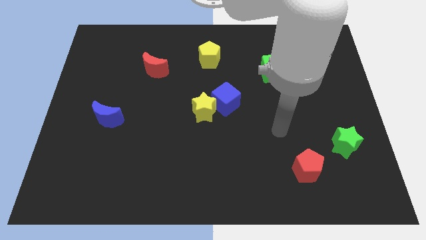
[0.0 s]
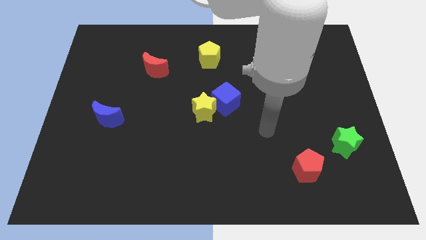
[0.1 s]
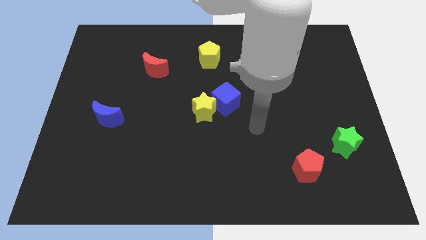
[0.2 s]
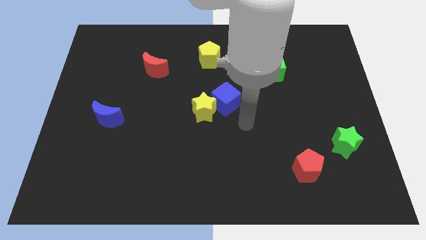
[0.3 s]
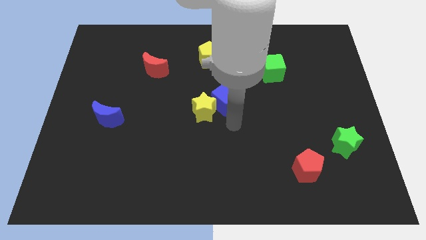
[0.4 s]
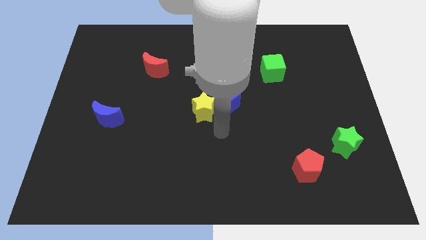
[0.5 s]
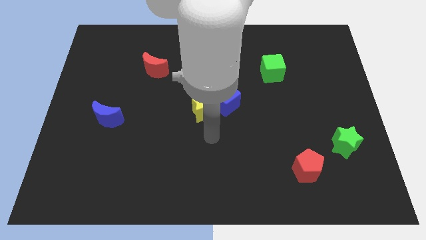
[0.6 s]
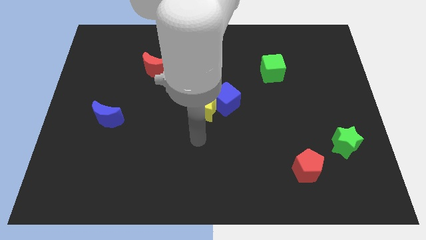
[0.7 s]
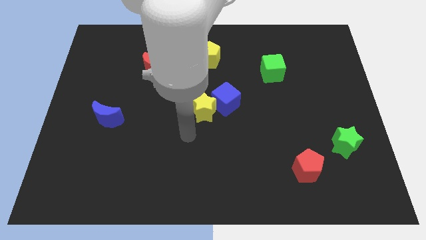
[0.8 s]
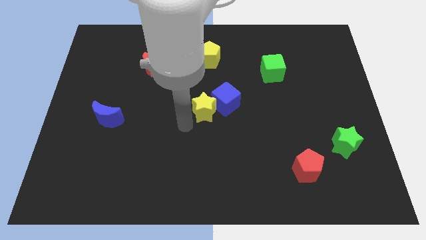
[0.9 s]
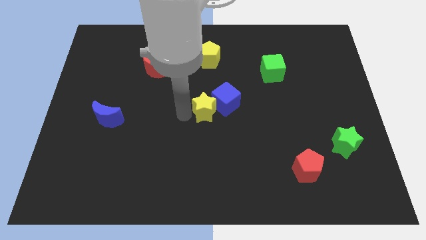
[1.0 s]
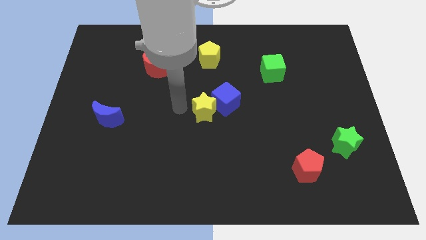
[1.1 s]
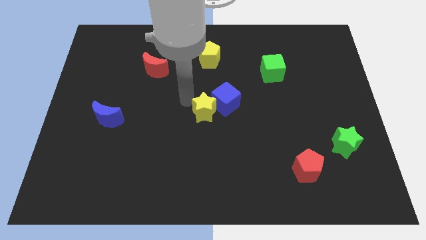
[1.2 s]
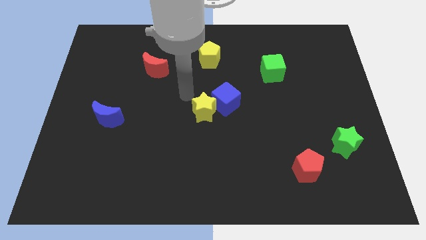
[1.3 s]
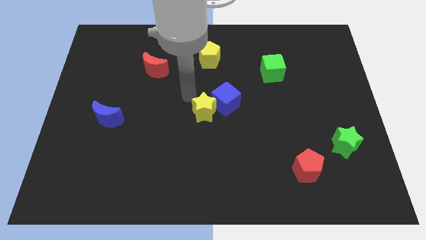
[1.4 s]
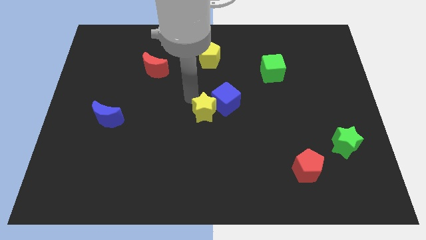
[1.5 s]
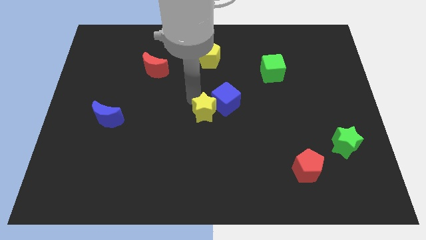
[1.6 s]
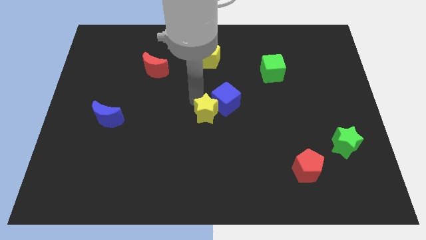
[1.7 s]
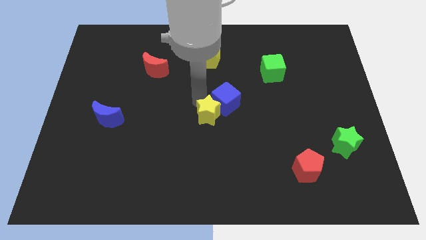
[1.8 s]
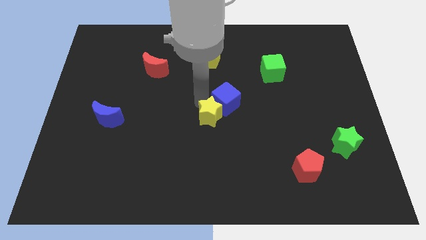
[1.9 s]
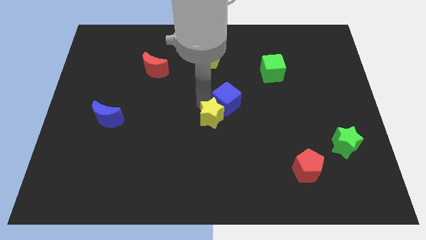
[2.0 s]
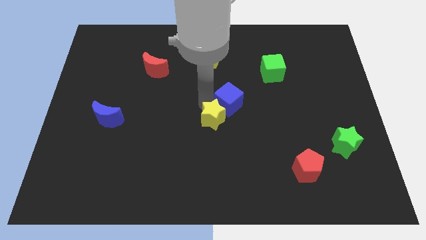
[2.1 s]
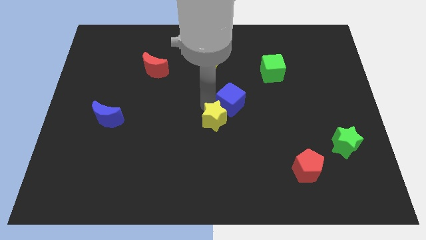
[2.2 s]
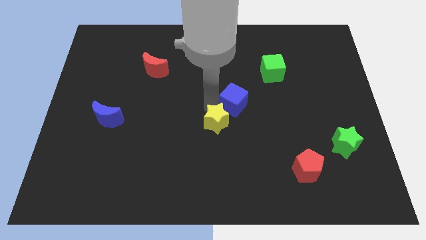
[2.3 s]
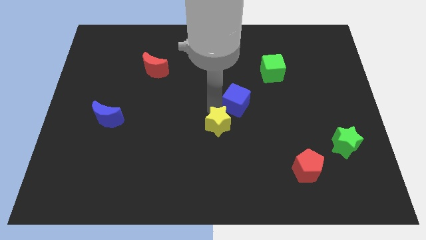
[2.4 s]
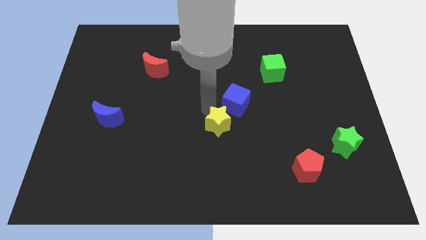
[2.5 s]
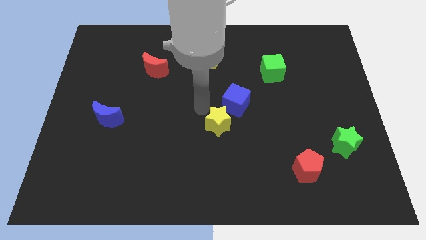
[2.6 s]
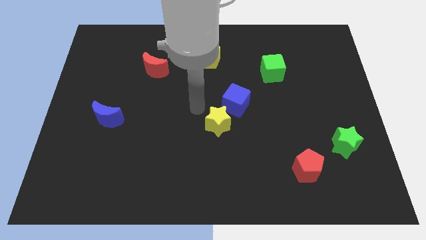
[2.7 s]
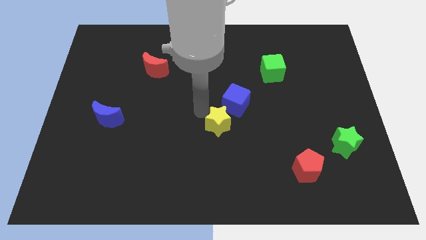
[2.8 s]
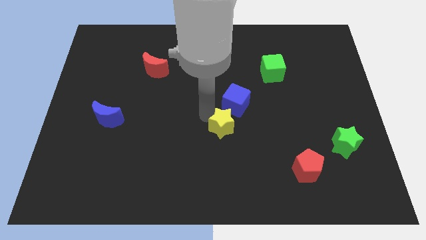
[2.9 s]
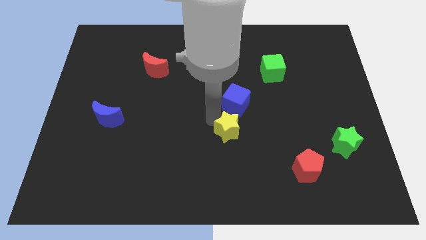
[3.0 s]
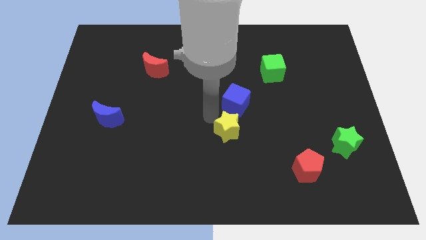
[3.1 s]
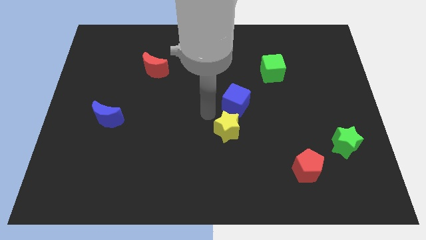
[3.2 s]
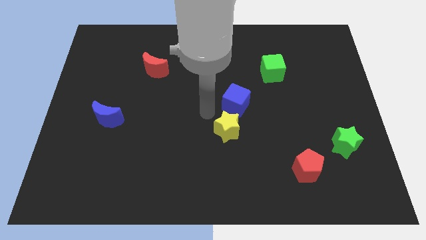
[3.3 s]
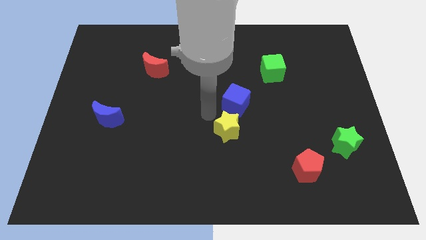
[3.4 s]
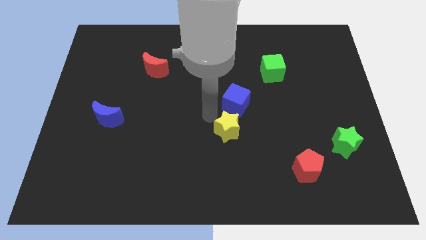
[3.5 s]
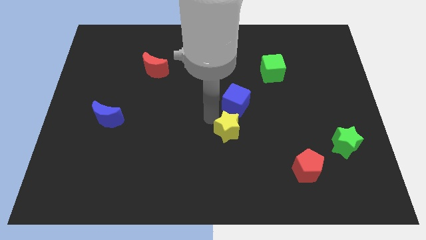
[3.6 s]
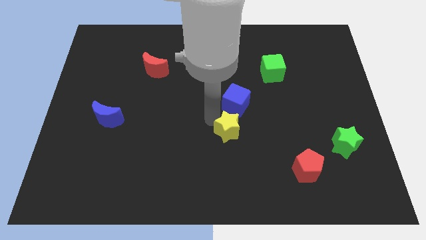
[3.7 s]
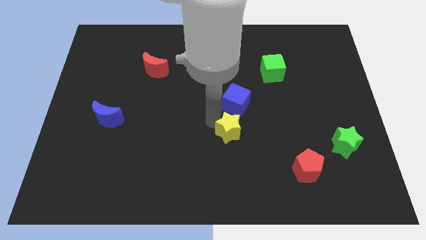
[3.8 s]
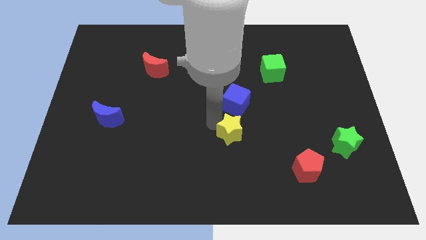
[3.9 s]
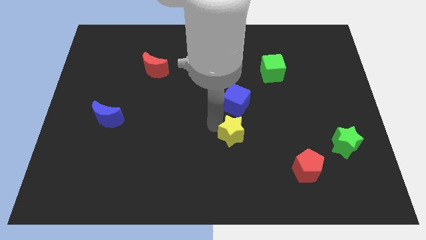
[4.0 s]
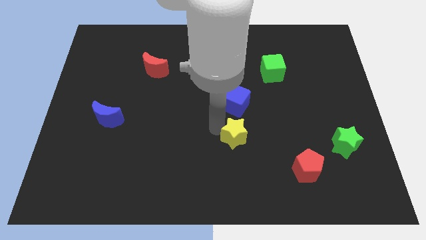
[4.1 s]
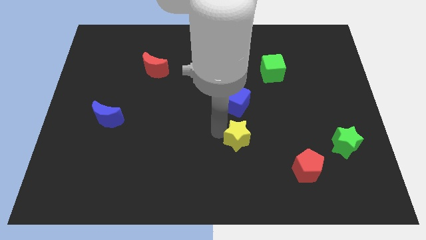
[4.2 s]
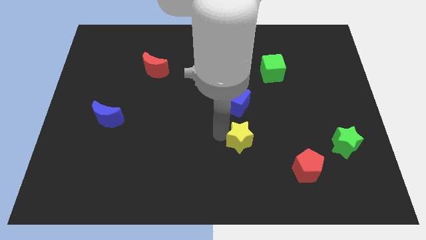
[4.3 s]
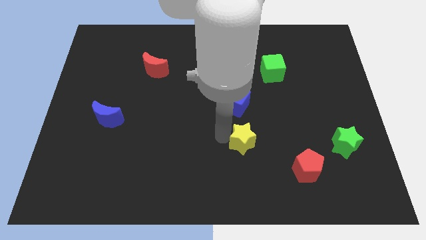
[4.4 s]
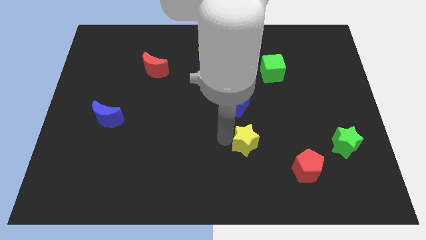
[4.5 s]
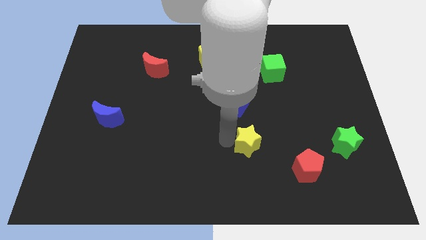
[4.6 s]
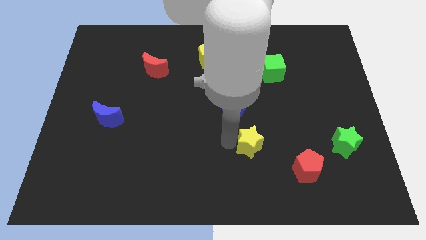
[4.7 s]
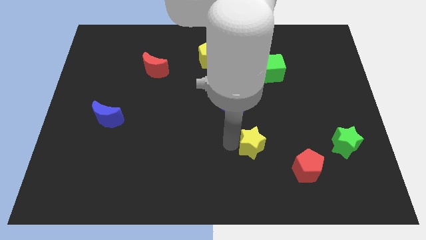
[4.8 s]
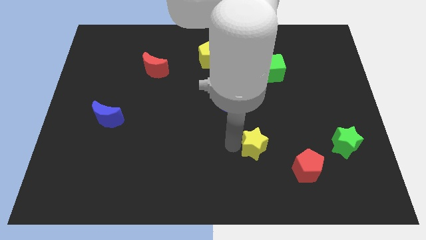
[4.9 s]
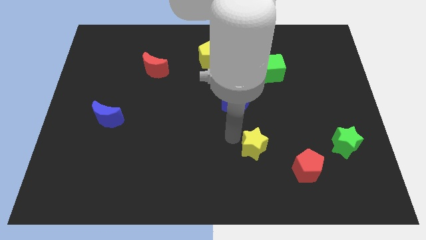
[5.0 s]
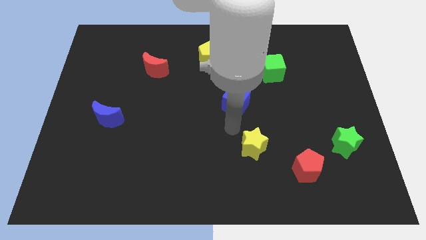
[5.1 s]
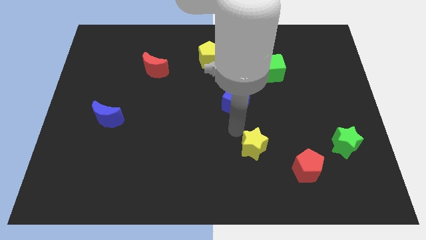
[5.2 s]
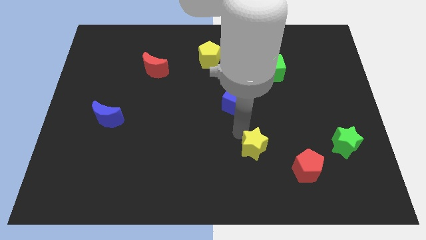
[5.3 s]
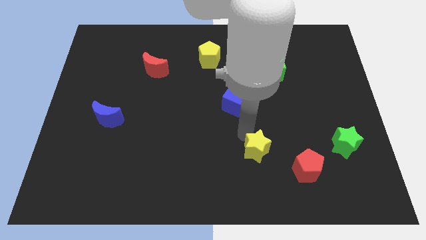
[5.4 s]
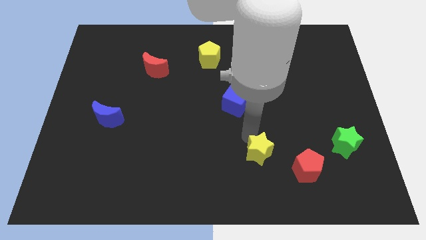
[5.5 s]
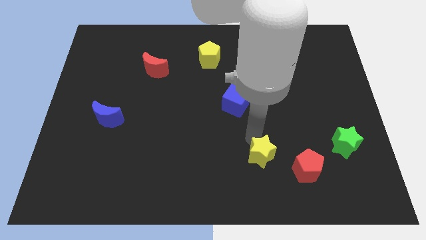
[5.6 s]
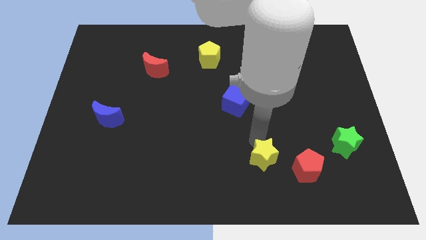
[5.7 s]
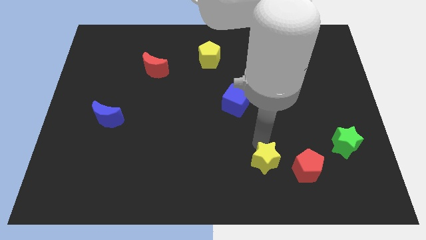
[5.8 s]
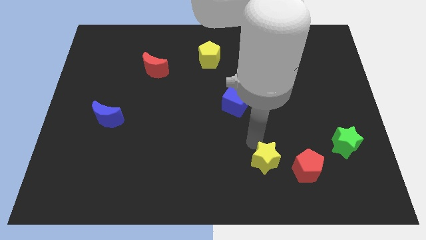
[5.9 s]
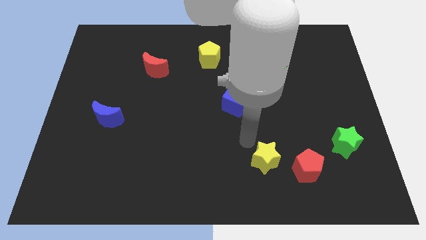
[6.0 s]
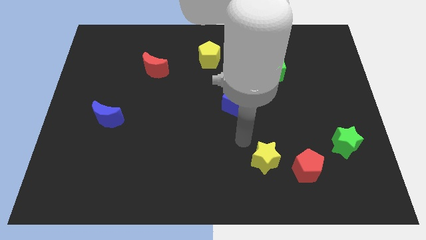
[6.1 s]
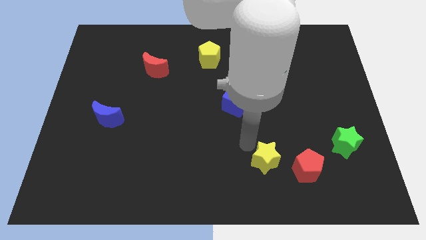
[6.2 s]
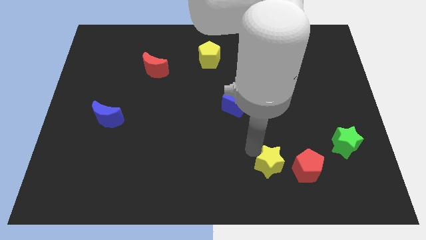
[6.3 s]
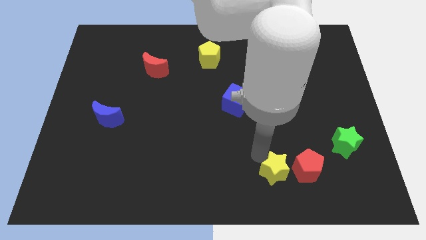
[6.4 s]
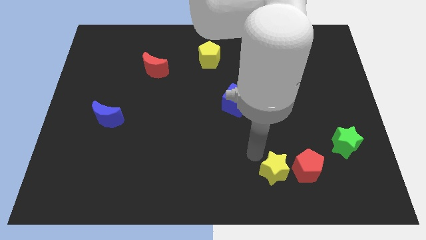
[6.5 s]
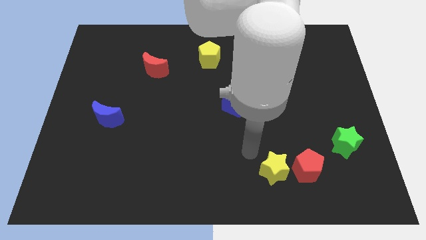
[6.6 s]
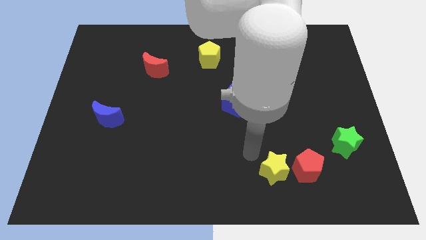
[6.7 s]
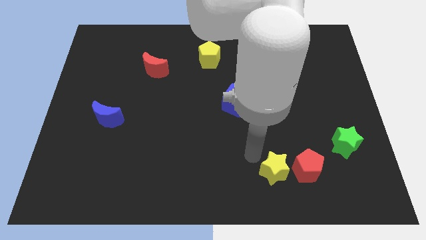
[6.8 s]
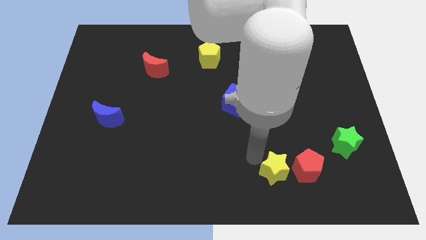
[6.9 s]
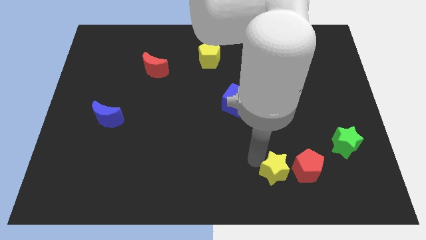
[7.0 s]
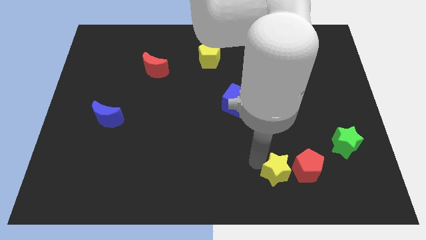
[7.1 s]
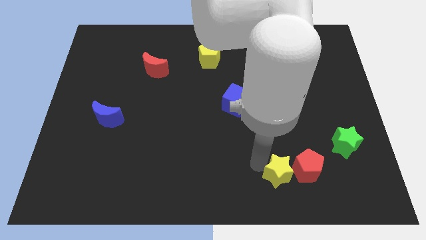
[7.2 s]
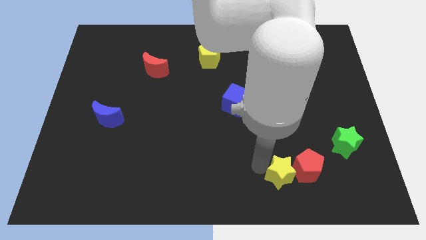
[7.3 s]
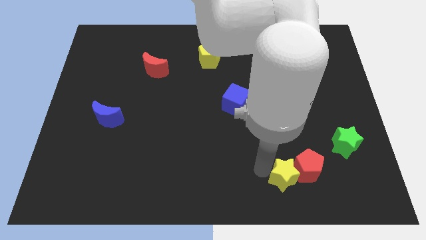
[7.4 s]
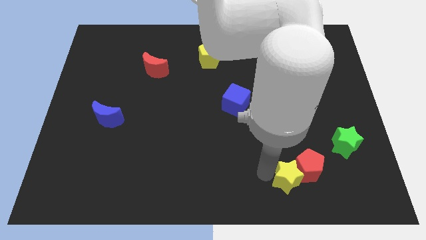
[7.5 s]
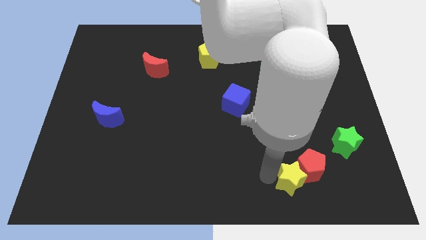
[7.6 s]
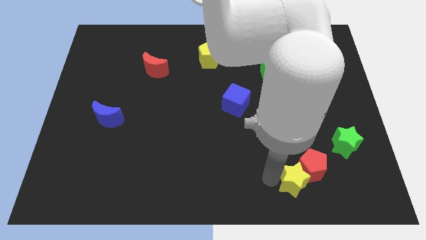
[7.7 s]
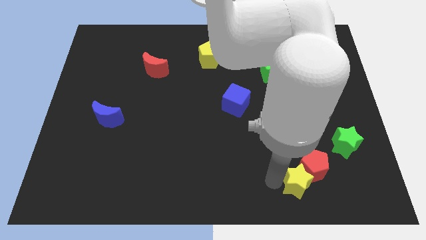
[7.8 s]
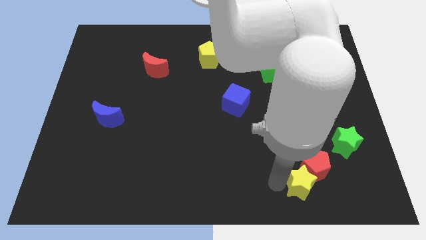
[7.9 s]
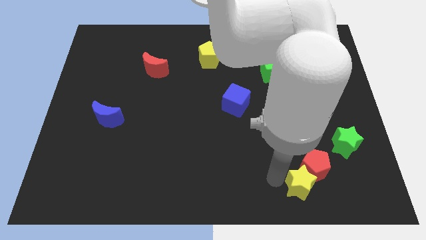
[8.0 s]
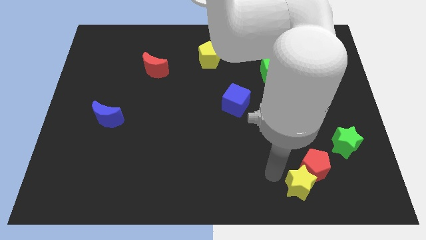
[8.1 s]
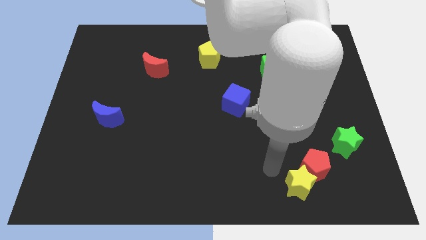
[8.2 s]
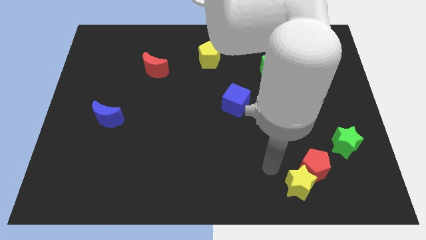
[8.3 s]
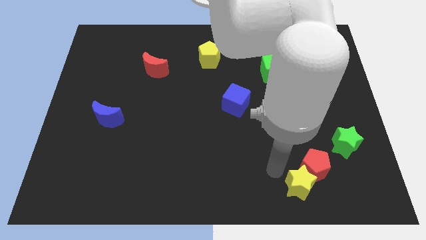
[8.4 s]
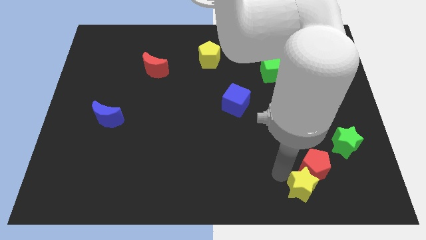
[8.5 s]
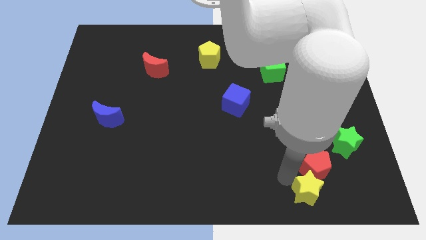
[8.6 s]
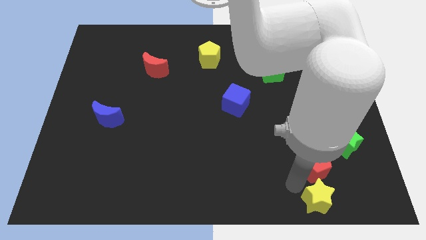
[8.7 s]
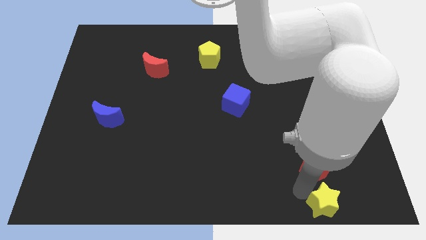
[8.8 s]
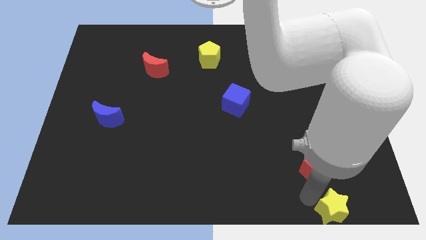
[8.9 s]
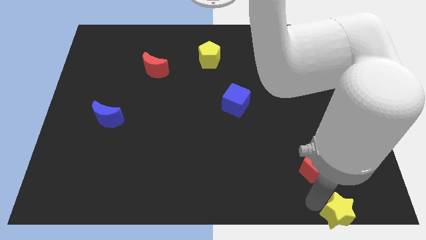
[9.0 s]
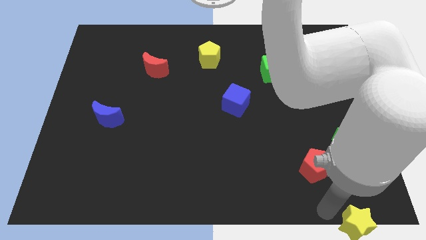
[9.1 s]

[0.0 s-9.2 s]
slide the yellow star to the lower right corner
